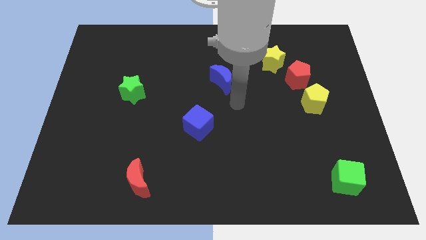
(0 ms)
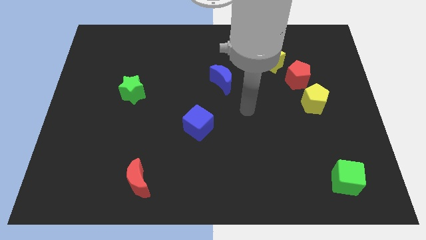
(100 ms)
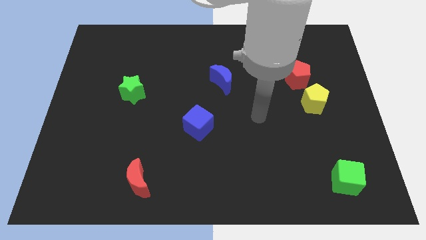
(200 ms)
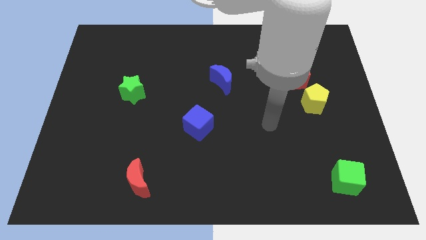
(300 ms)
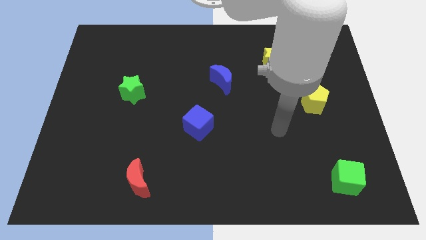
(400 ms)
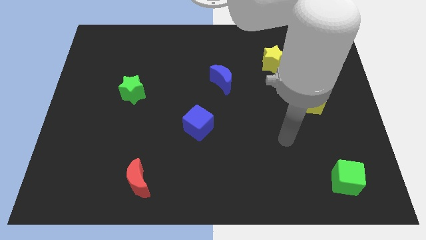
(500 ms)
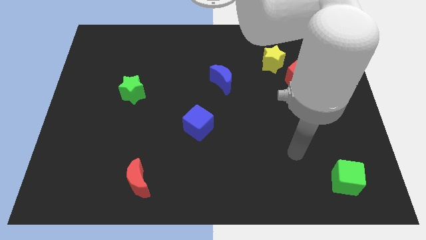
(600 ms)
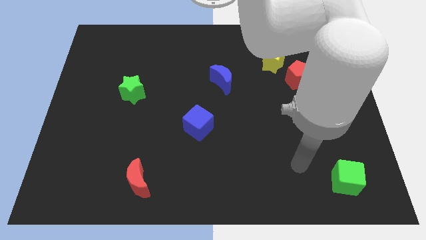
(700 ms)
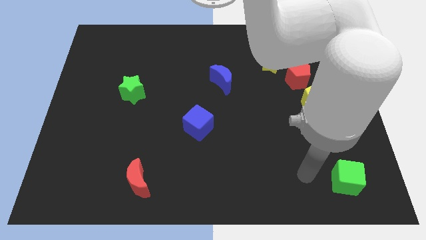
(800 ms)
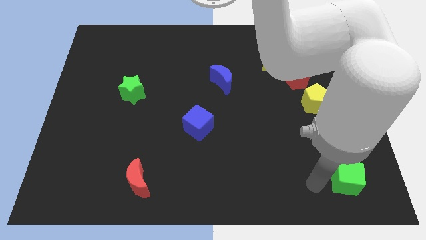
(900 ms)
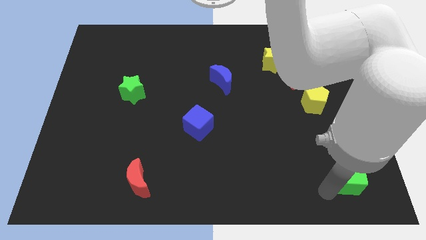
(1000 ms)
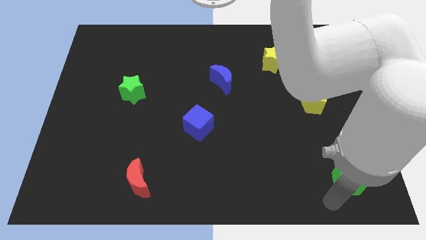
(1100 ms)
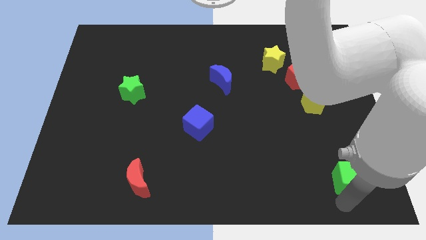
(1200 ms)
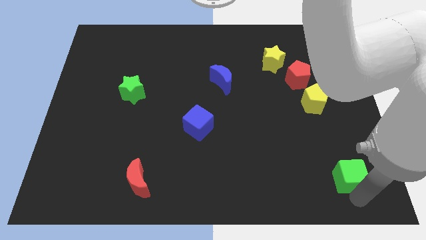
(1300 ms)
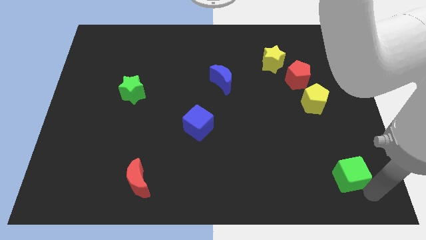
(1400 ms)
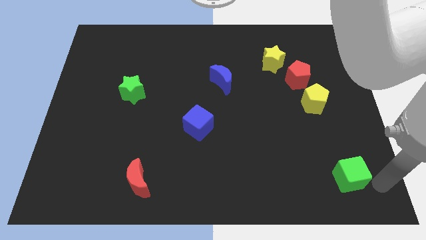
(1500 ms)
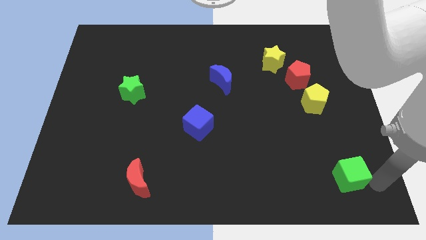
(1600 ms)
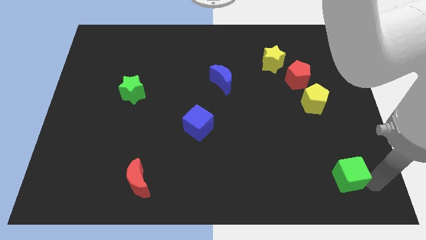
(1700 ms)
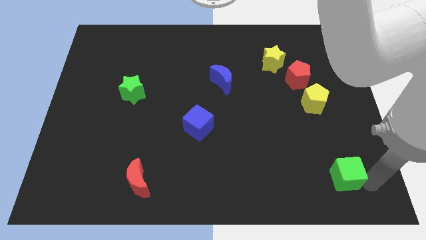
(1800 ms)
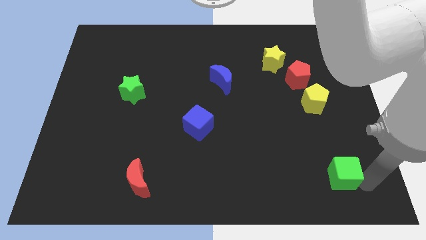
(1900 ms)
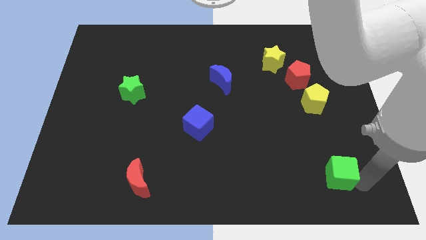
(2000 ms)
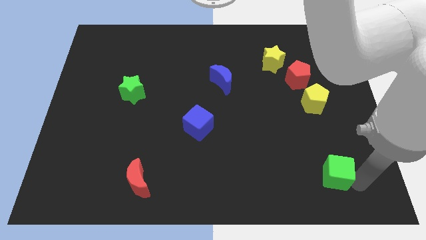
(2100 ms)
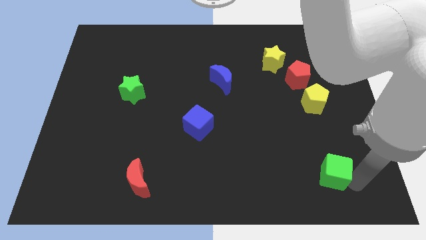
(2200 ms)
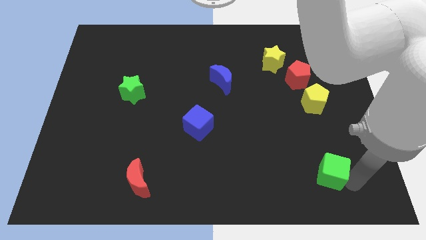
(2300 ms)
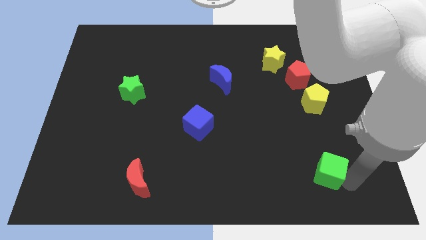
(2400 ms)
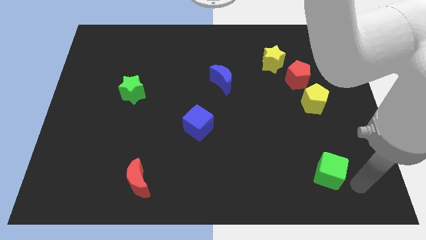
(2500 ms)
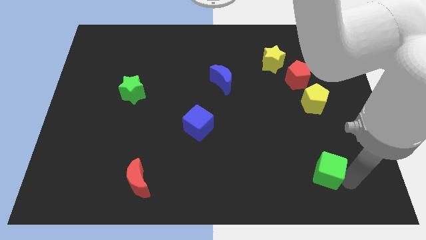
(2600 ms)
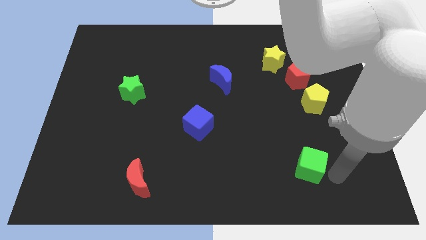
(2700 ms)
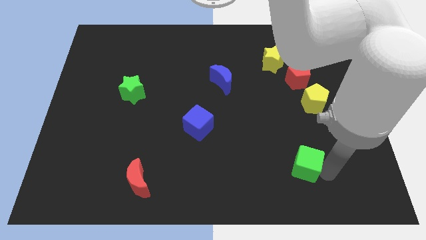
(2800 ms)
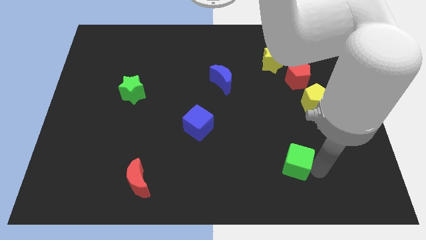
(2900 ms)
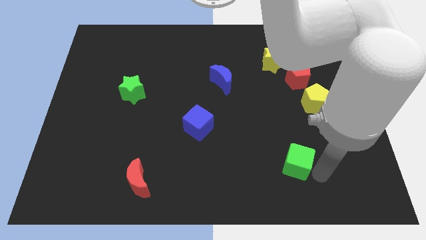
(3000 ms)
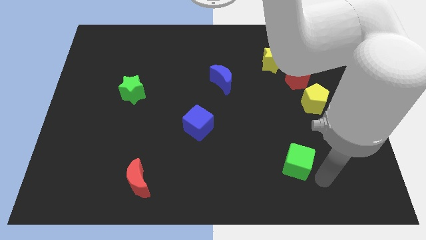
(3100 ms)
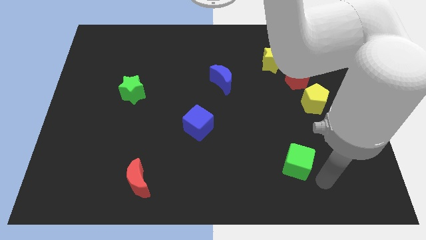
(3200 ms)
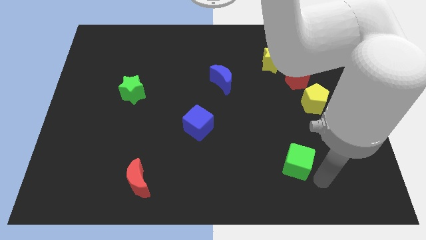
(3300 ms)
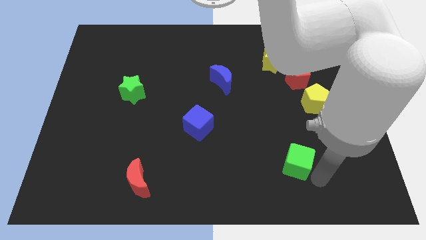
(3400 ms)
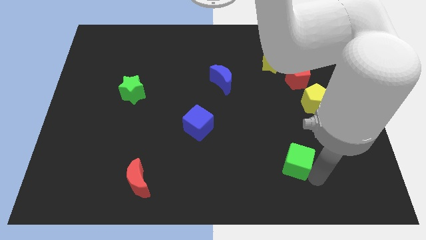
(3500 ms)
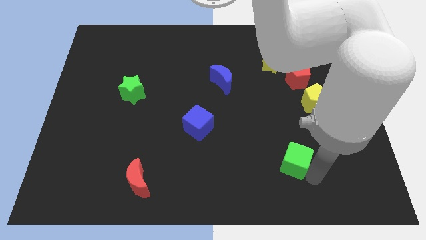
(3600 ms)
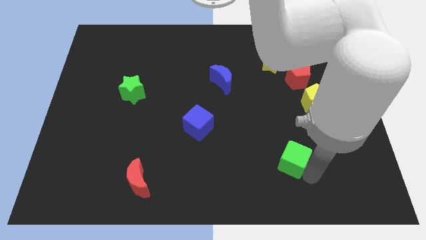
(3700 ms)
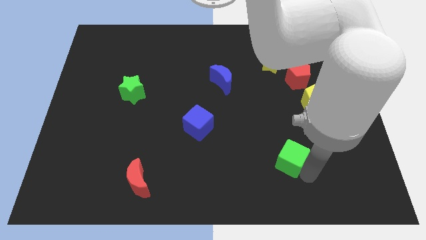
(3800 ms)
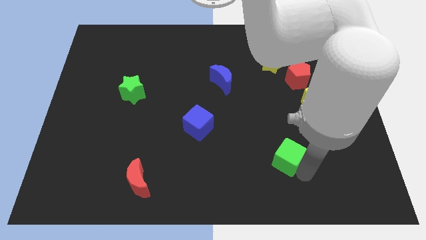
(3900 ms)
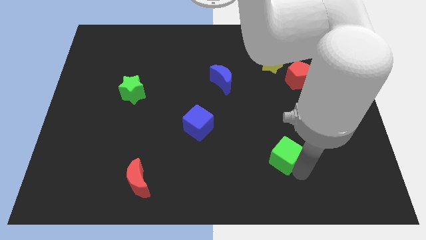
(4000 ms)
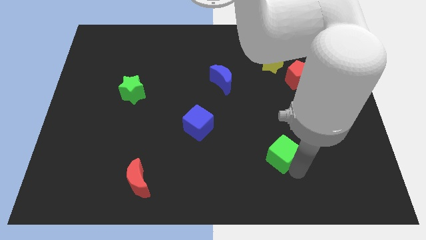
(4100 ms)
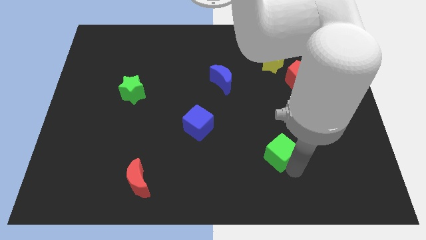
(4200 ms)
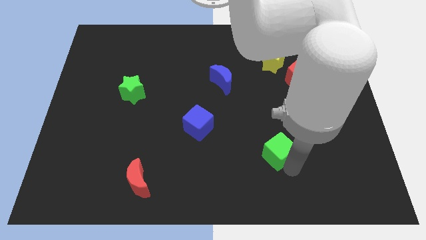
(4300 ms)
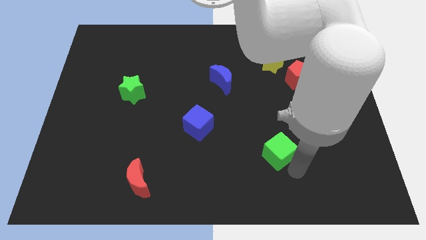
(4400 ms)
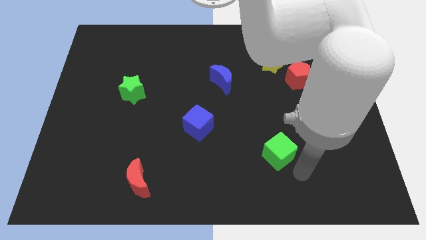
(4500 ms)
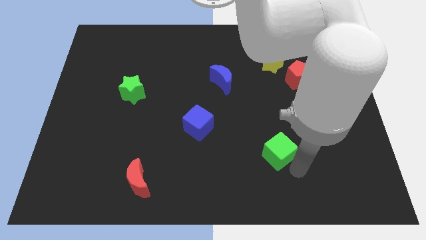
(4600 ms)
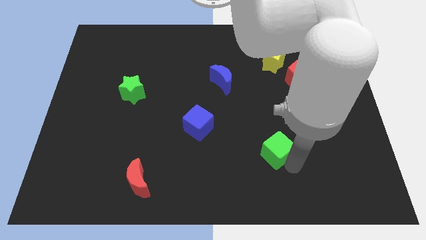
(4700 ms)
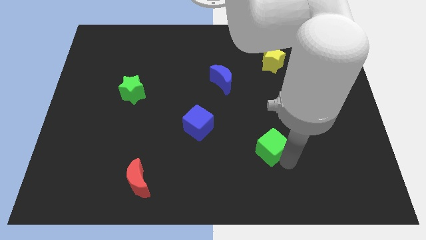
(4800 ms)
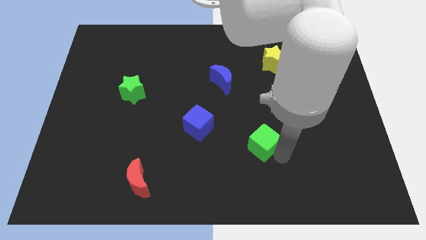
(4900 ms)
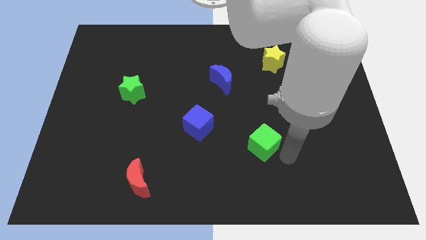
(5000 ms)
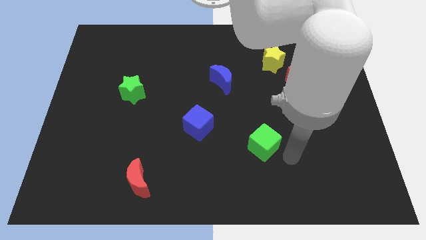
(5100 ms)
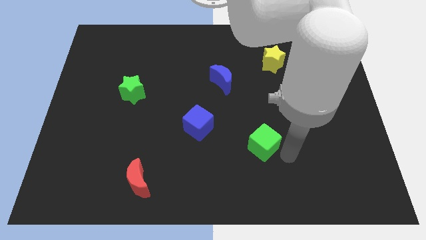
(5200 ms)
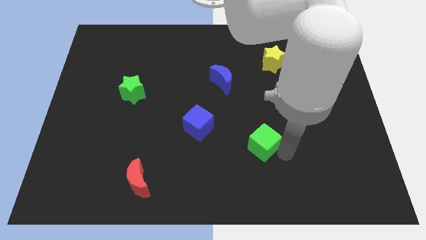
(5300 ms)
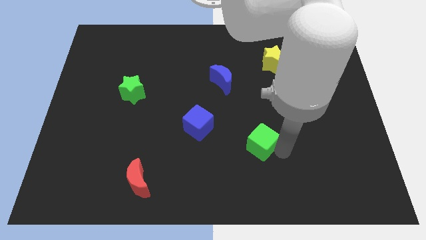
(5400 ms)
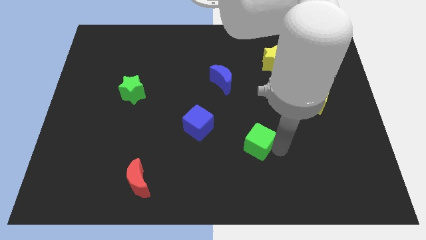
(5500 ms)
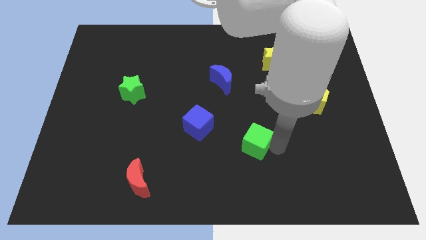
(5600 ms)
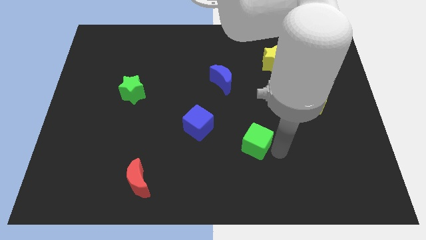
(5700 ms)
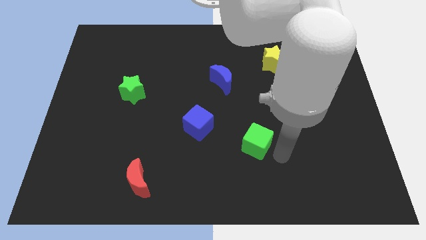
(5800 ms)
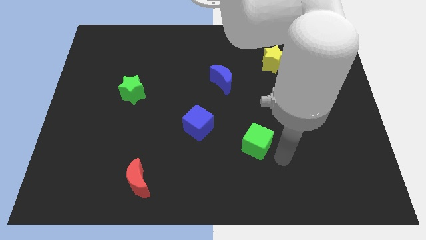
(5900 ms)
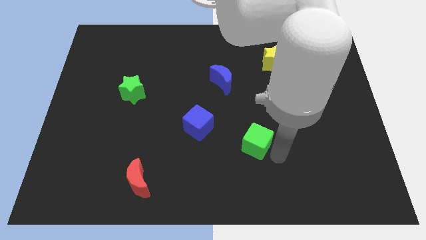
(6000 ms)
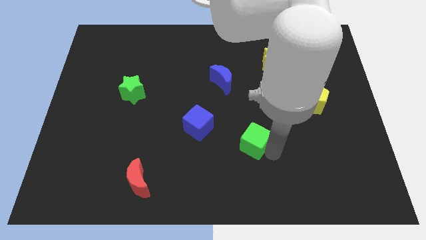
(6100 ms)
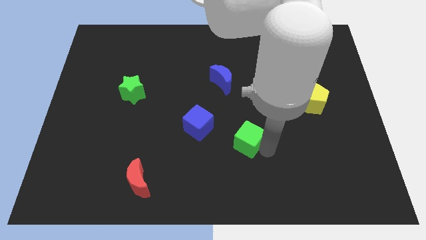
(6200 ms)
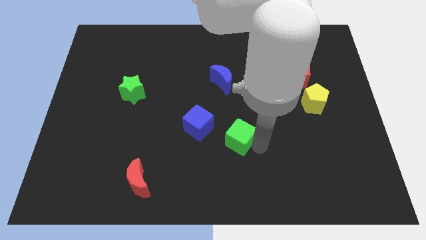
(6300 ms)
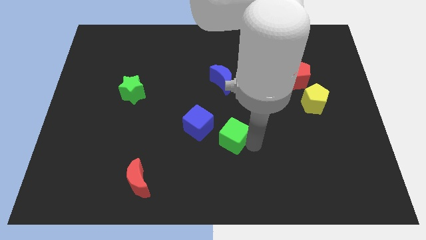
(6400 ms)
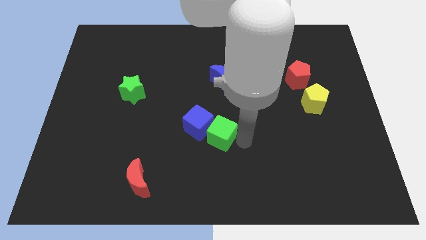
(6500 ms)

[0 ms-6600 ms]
slide the green cube next to the blue cube

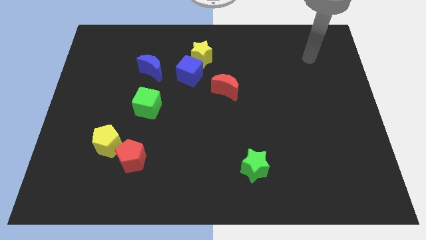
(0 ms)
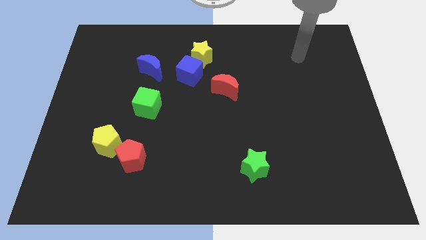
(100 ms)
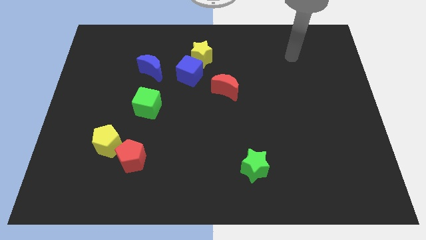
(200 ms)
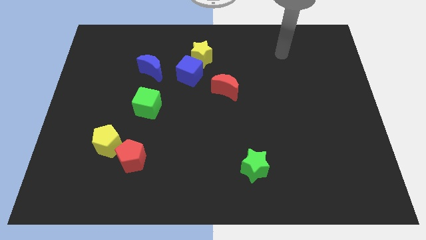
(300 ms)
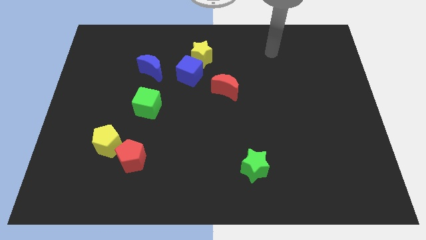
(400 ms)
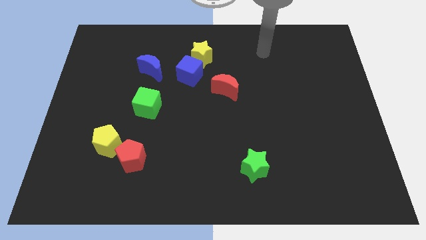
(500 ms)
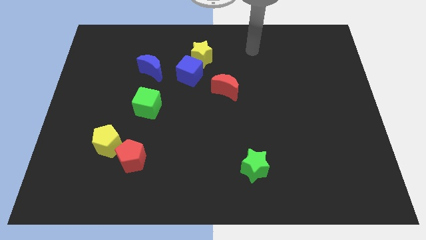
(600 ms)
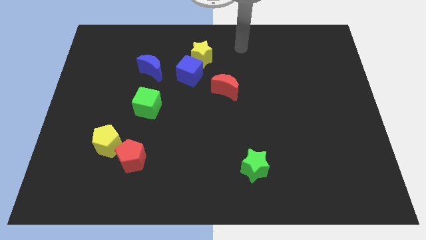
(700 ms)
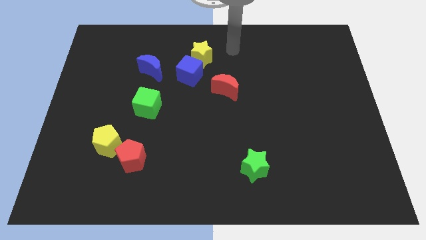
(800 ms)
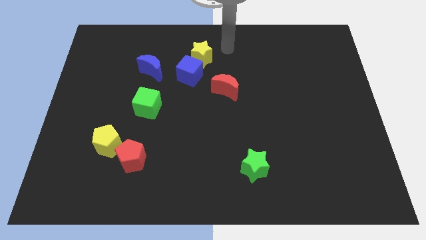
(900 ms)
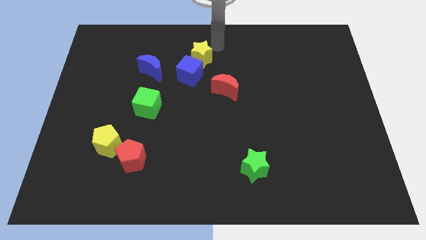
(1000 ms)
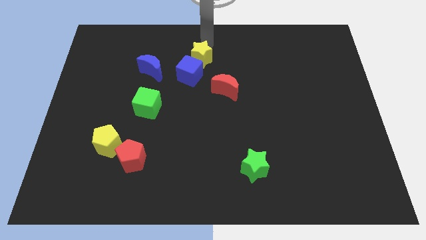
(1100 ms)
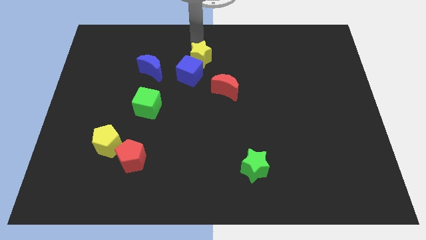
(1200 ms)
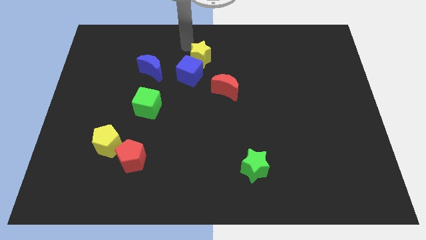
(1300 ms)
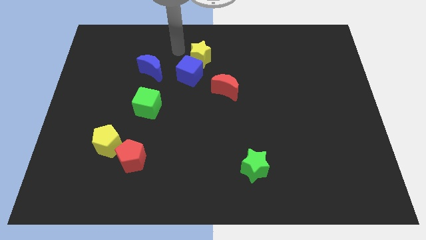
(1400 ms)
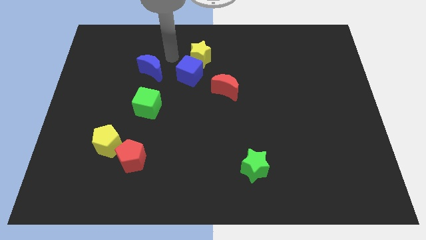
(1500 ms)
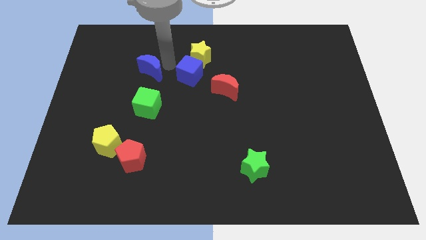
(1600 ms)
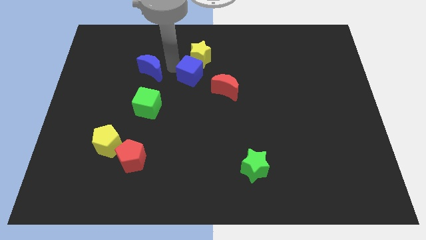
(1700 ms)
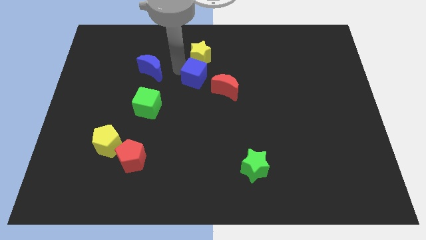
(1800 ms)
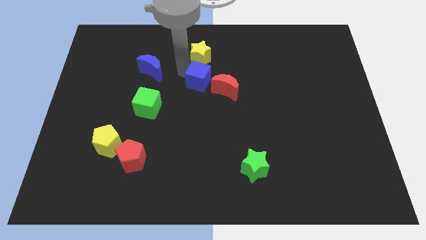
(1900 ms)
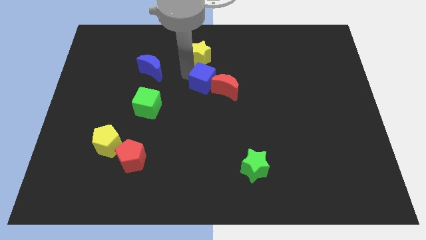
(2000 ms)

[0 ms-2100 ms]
push the blue cube close to the red moon
